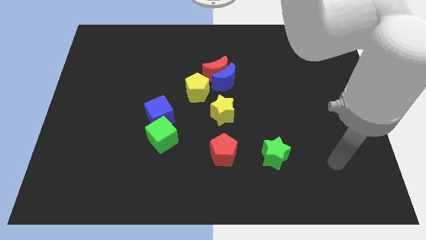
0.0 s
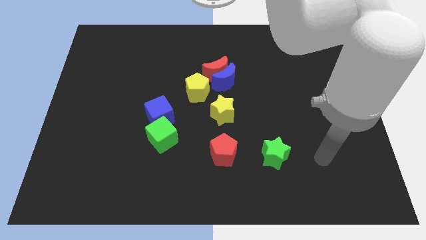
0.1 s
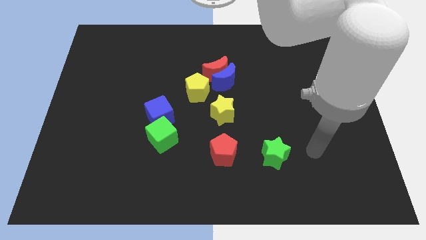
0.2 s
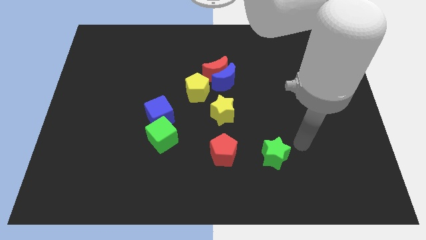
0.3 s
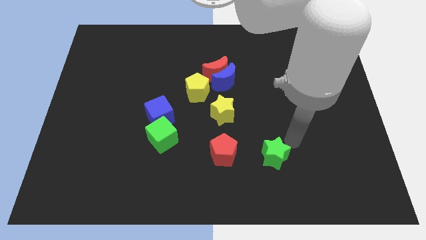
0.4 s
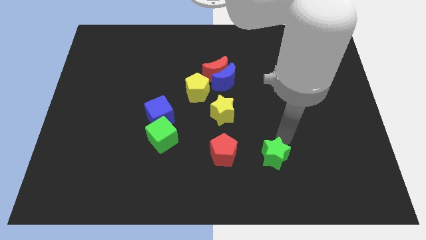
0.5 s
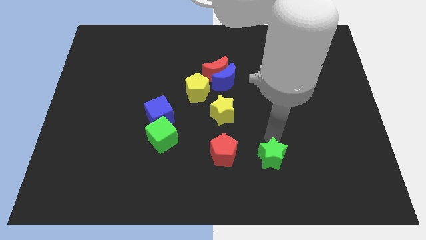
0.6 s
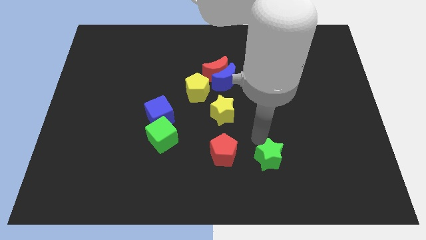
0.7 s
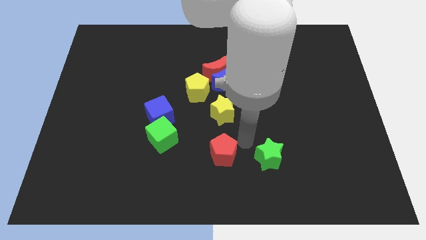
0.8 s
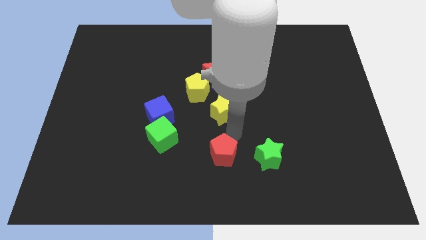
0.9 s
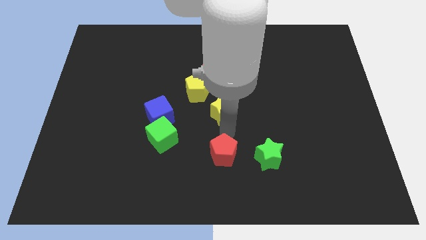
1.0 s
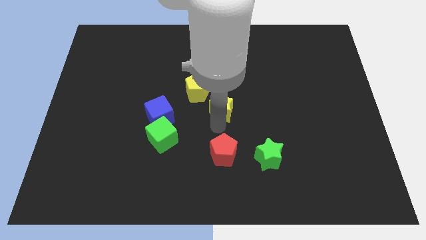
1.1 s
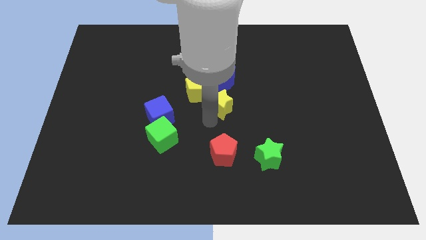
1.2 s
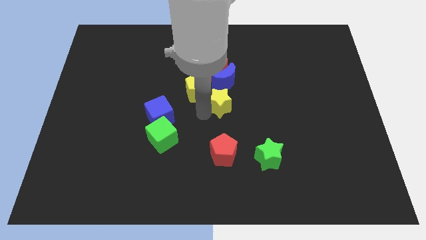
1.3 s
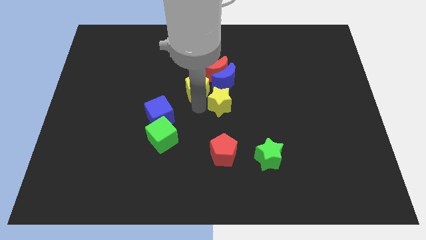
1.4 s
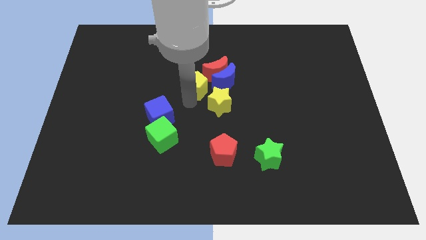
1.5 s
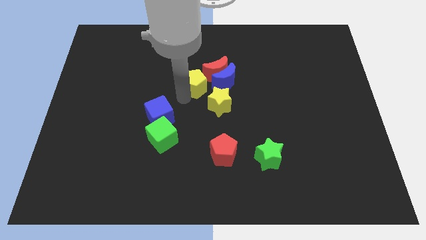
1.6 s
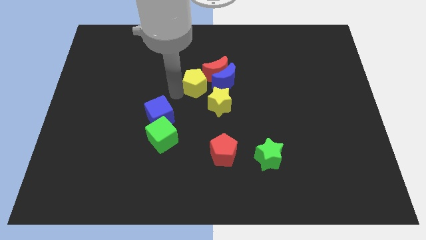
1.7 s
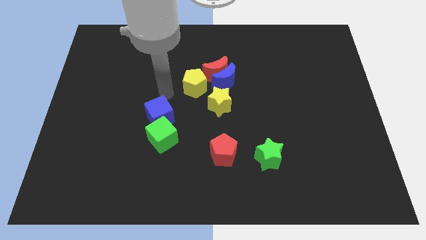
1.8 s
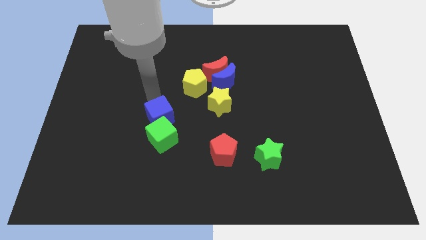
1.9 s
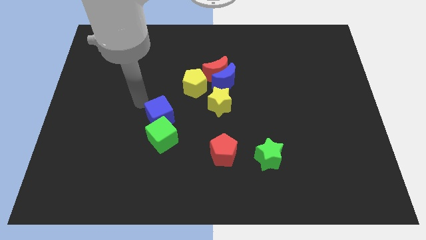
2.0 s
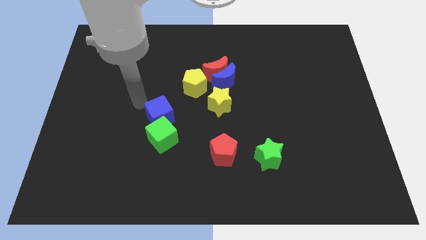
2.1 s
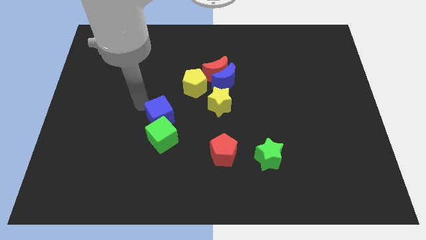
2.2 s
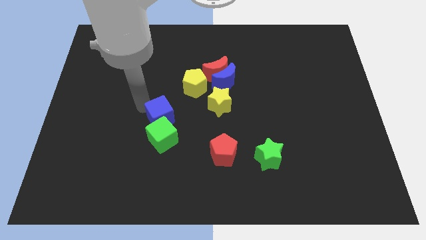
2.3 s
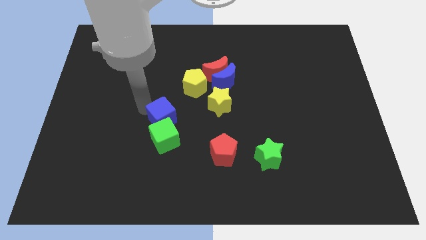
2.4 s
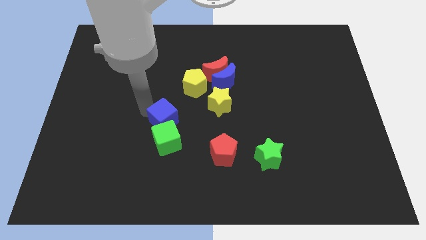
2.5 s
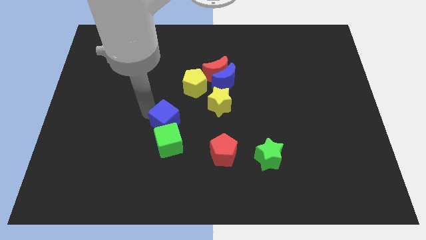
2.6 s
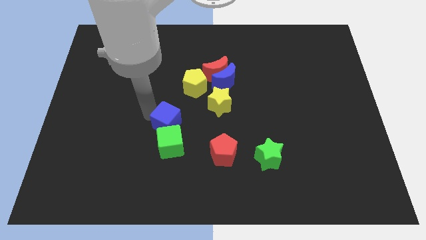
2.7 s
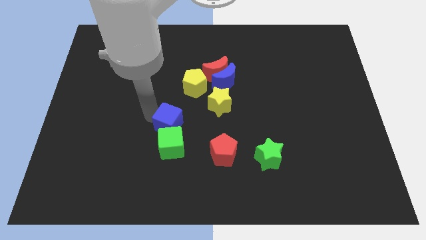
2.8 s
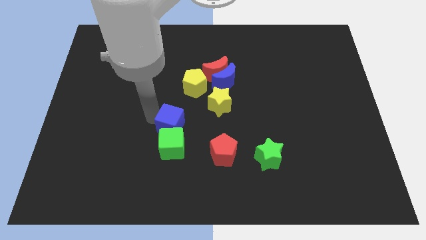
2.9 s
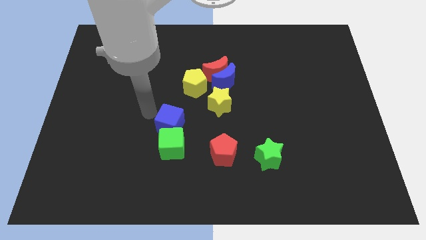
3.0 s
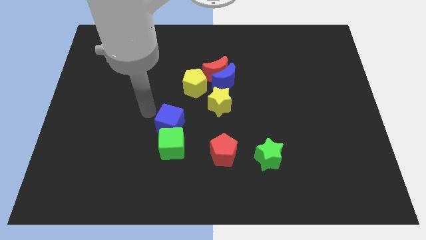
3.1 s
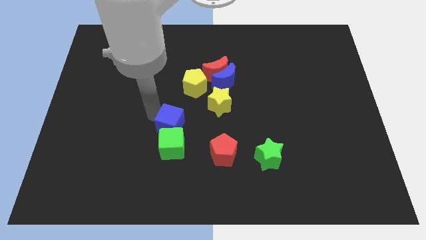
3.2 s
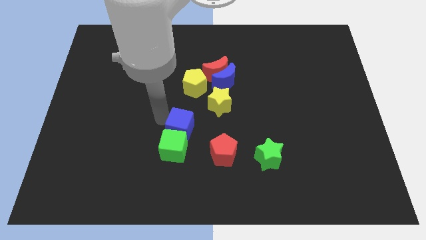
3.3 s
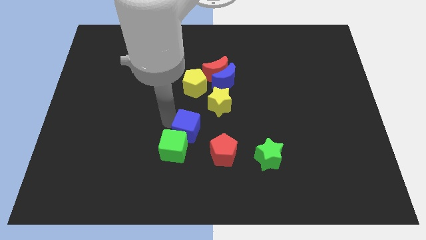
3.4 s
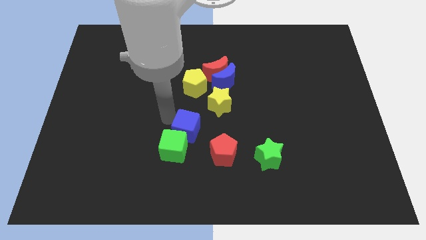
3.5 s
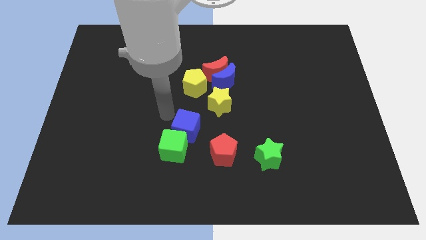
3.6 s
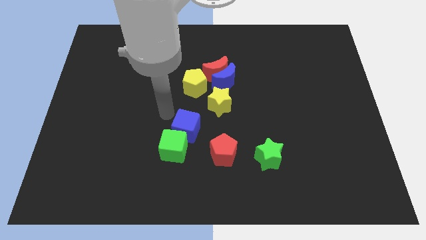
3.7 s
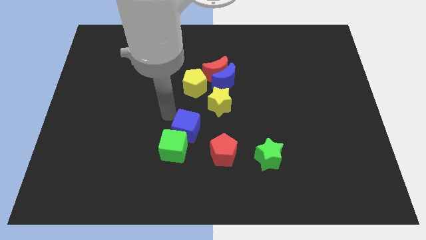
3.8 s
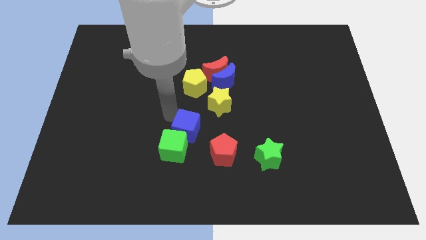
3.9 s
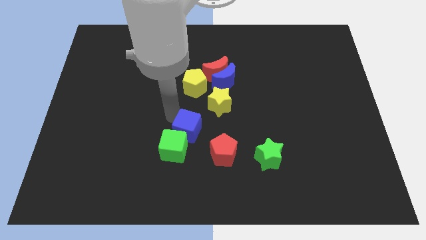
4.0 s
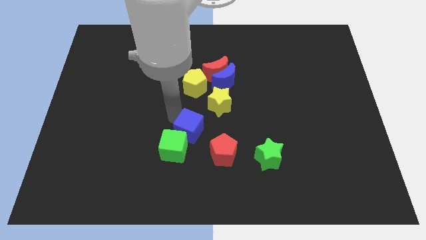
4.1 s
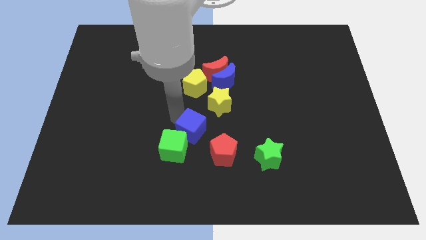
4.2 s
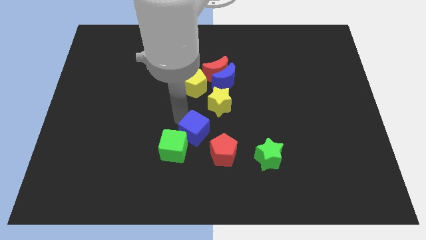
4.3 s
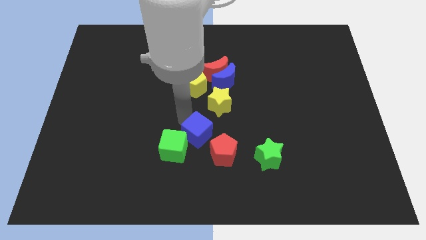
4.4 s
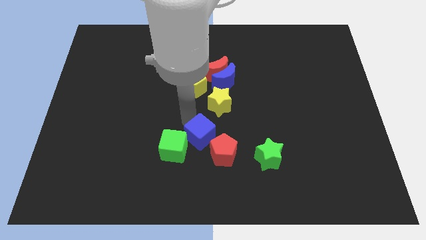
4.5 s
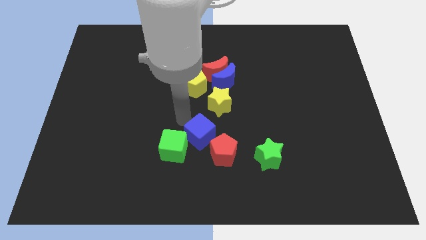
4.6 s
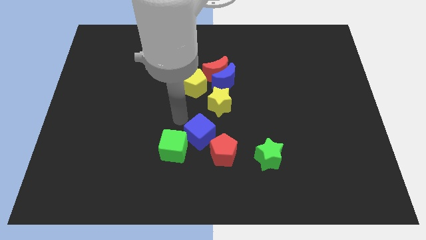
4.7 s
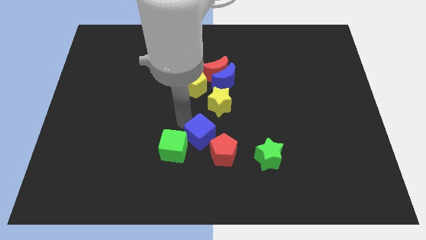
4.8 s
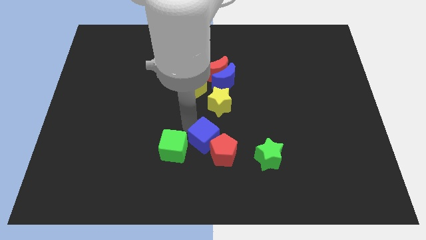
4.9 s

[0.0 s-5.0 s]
move the blue cube to the red pentagon

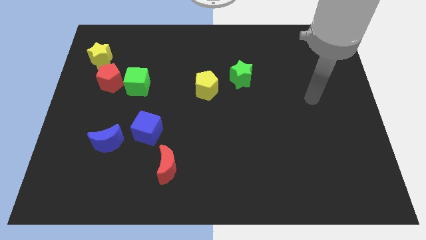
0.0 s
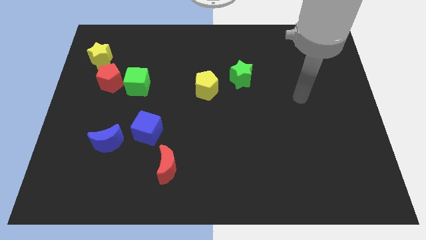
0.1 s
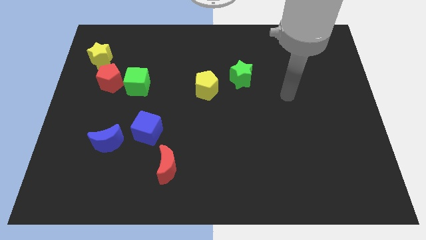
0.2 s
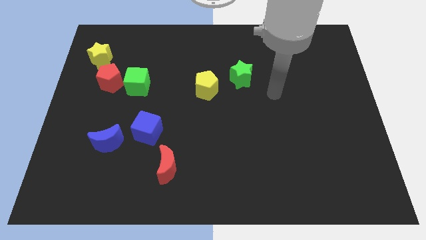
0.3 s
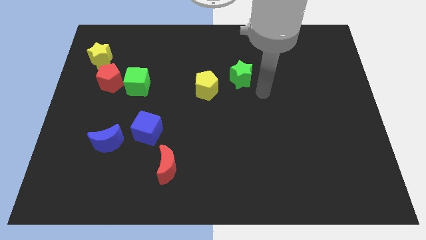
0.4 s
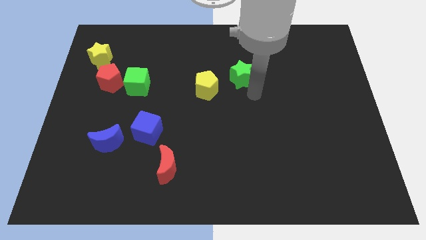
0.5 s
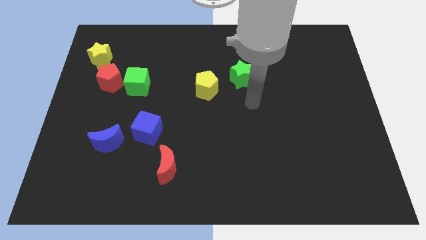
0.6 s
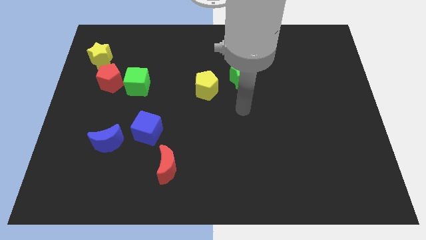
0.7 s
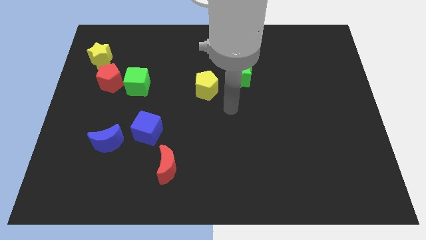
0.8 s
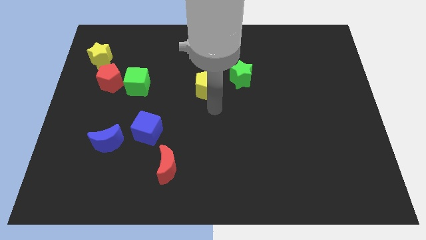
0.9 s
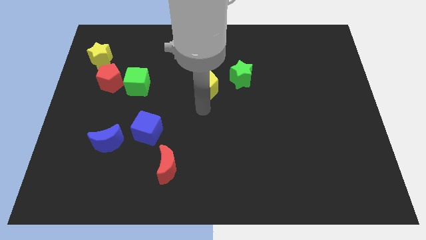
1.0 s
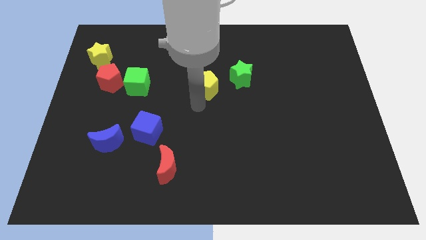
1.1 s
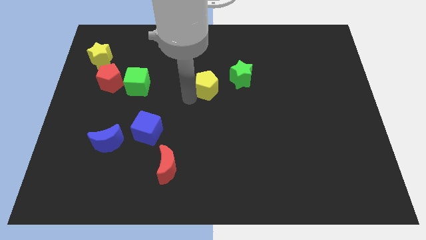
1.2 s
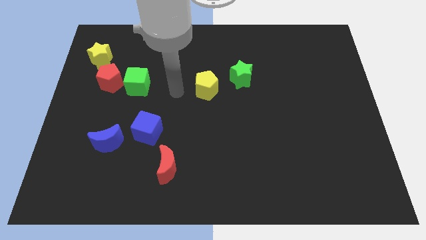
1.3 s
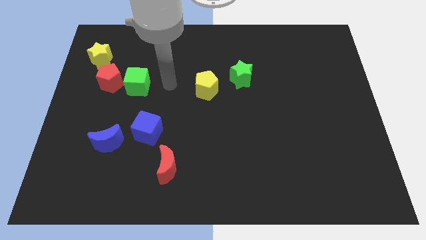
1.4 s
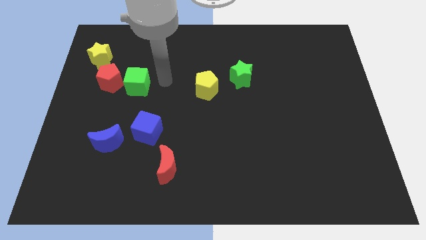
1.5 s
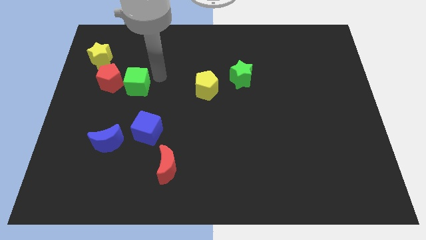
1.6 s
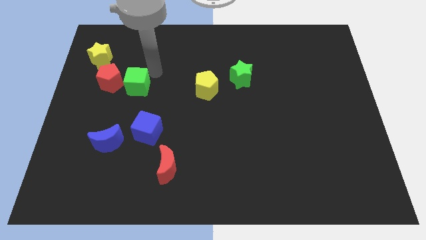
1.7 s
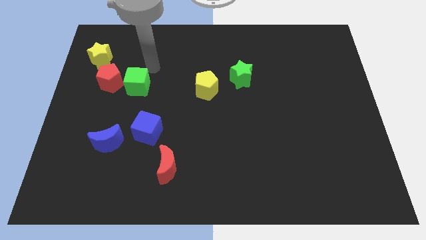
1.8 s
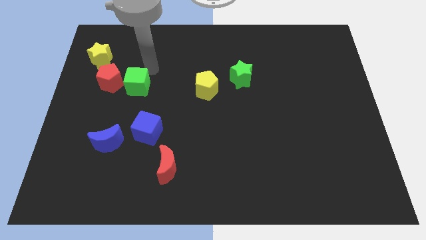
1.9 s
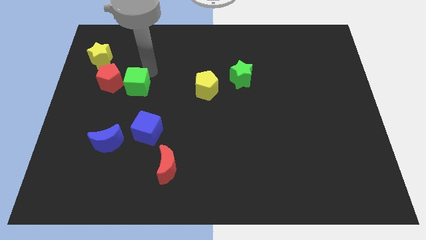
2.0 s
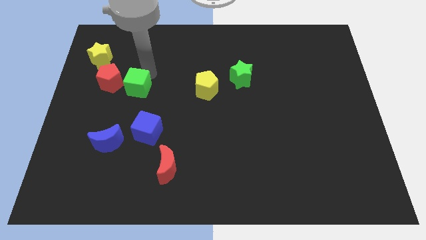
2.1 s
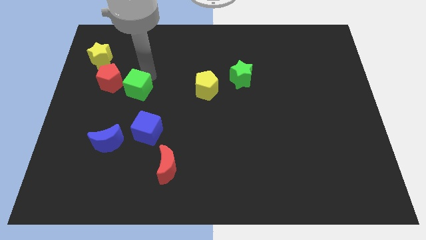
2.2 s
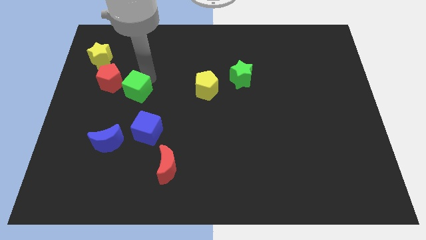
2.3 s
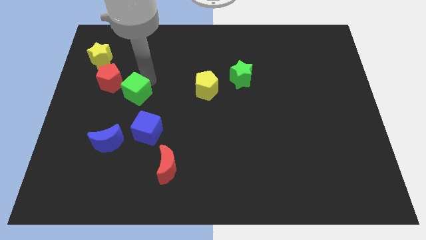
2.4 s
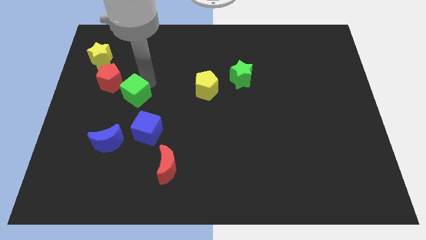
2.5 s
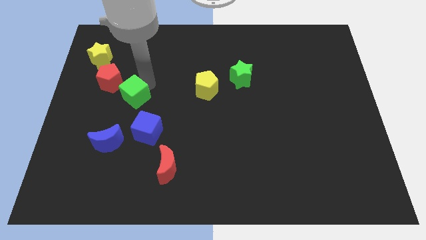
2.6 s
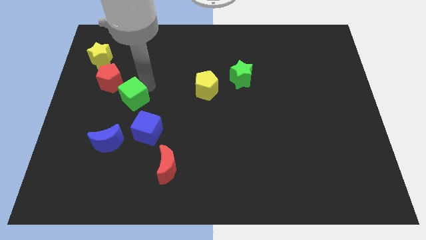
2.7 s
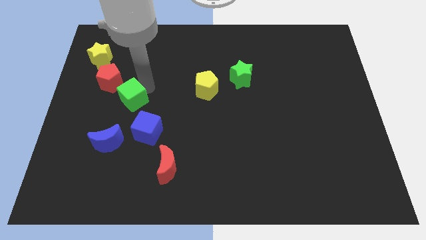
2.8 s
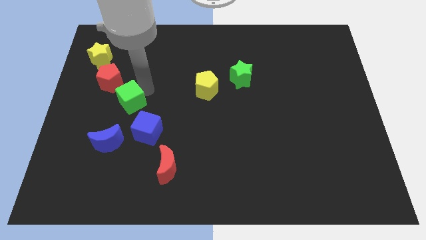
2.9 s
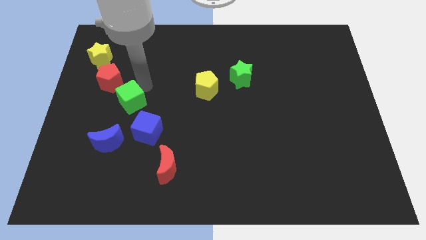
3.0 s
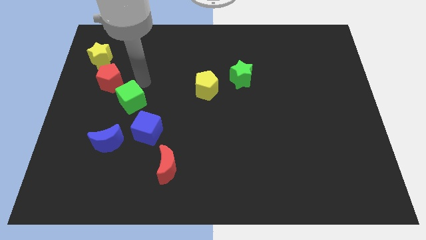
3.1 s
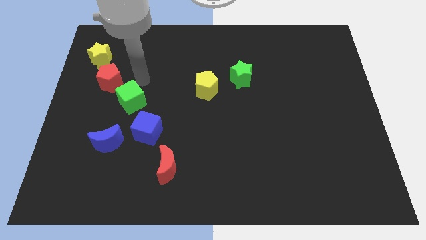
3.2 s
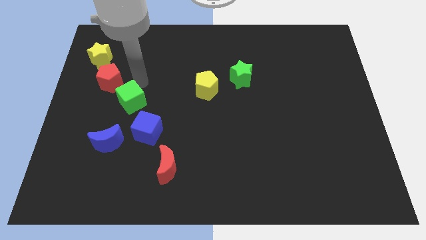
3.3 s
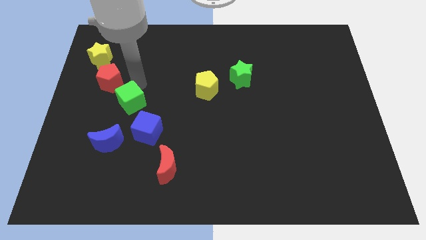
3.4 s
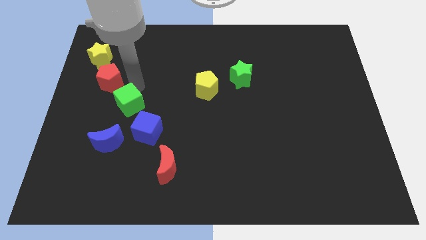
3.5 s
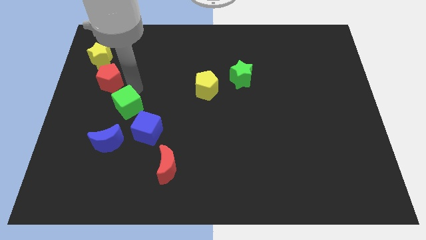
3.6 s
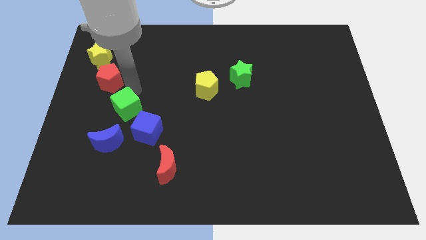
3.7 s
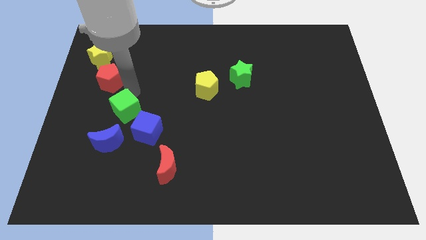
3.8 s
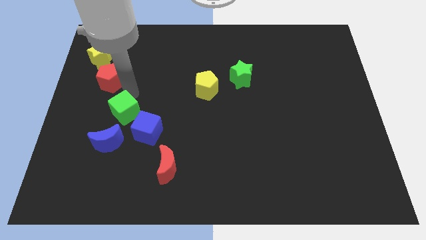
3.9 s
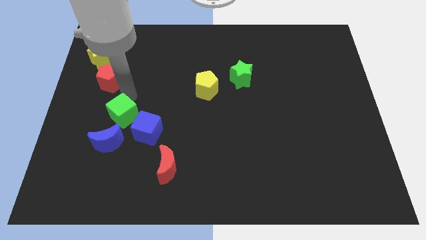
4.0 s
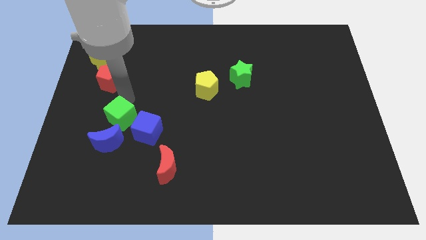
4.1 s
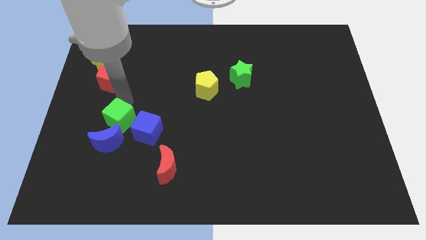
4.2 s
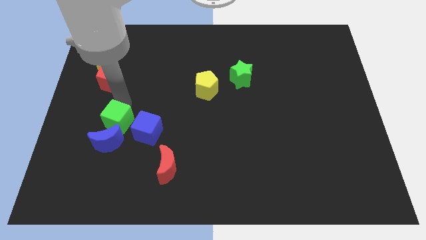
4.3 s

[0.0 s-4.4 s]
put the green cube next to the blue moon
